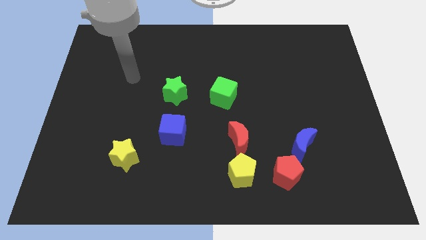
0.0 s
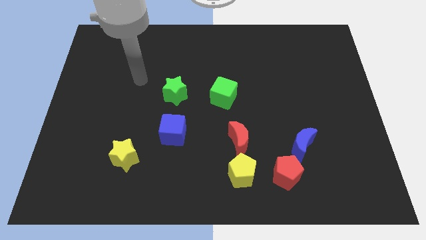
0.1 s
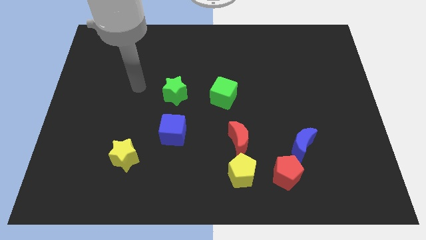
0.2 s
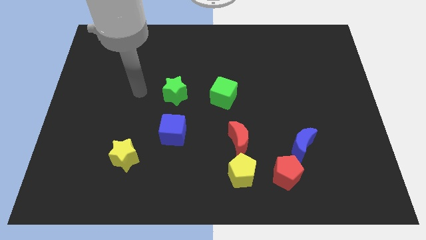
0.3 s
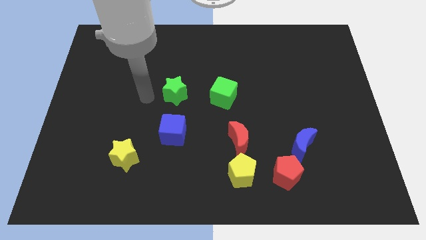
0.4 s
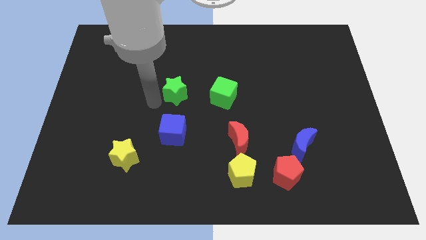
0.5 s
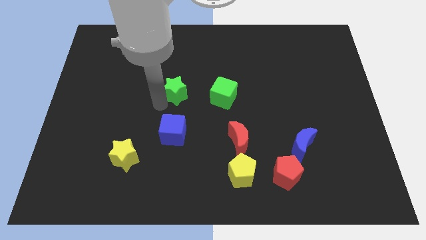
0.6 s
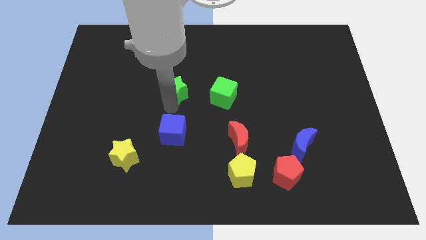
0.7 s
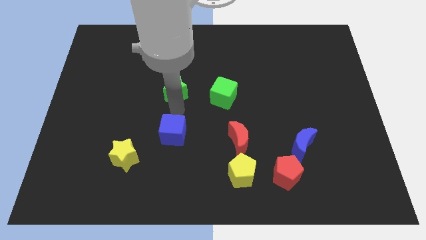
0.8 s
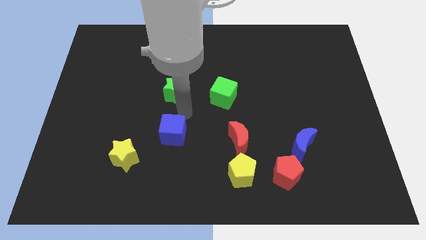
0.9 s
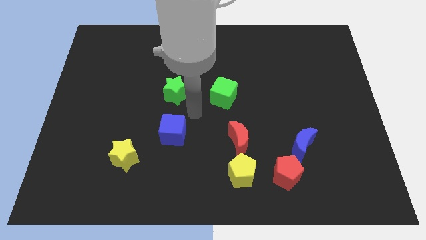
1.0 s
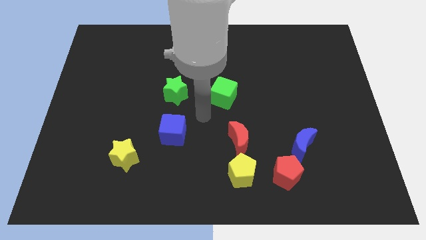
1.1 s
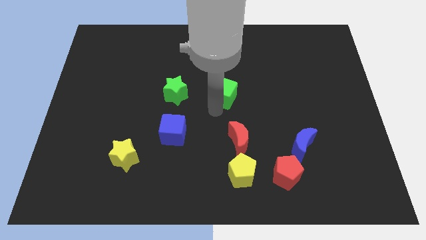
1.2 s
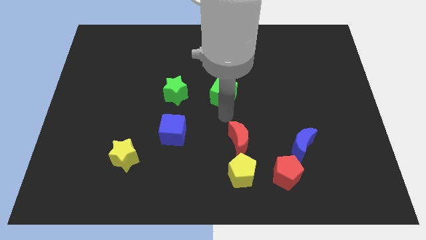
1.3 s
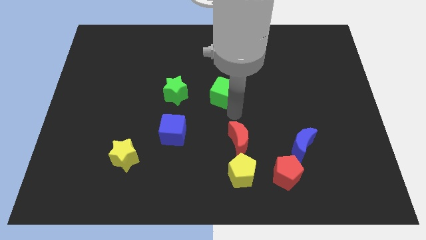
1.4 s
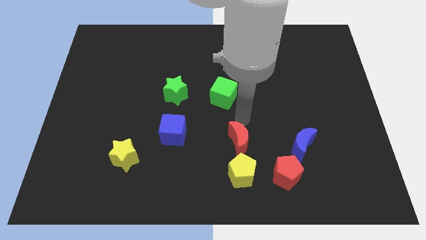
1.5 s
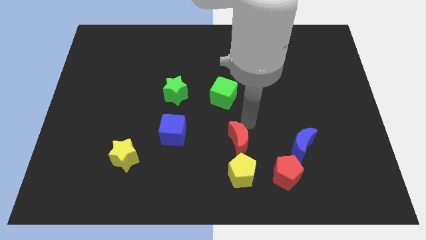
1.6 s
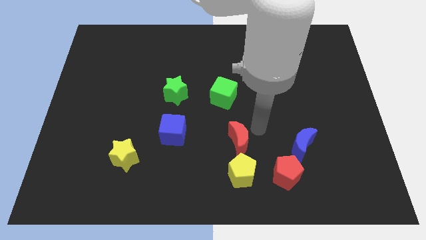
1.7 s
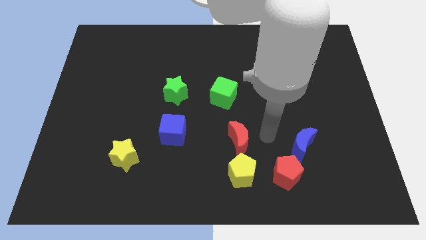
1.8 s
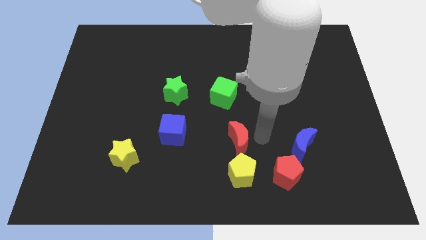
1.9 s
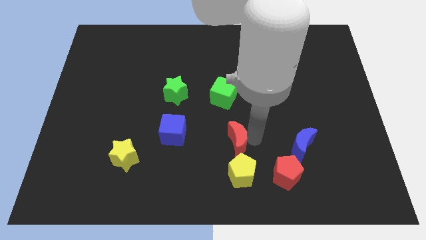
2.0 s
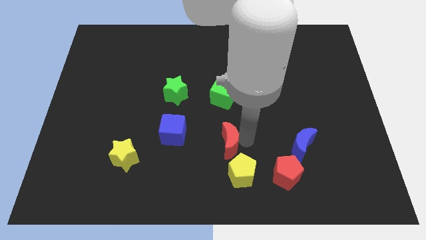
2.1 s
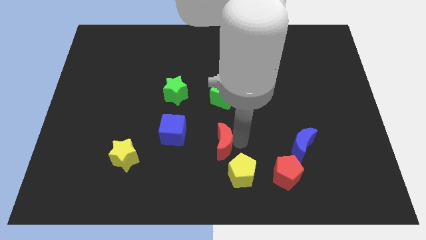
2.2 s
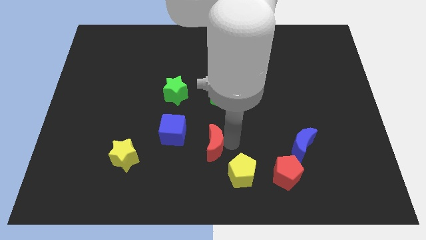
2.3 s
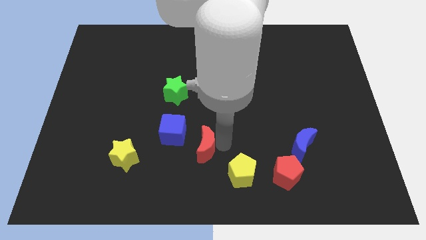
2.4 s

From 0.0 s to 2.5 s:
slightly push the red moon to the left

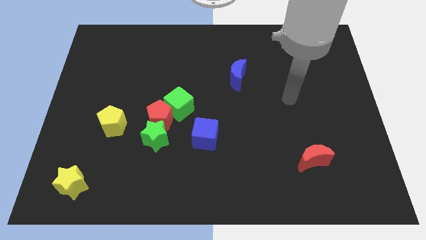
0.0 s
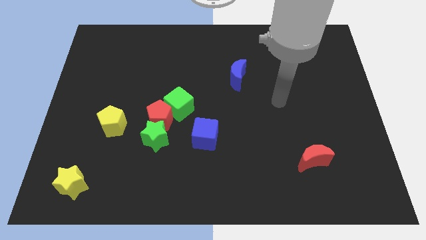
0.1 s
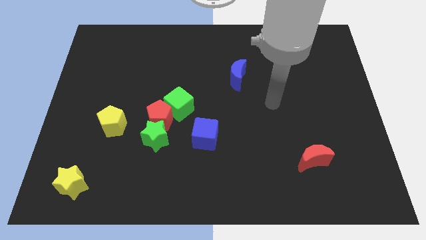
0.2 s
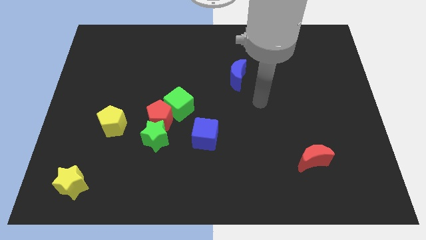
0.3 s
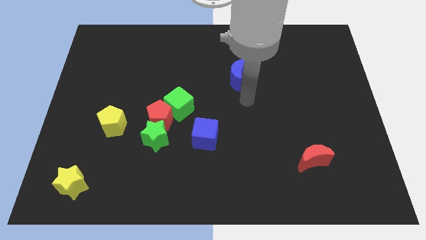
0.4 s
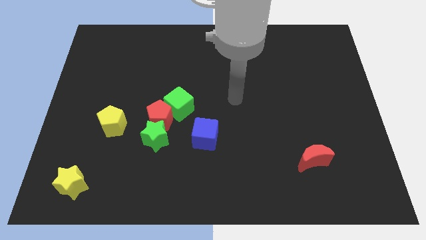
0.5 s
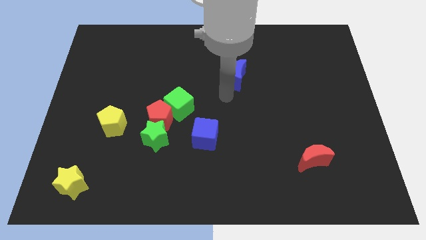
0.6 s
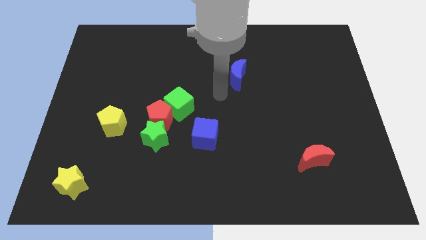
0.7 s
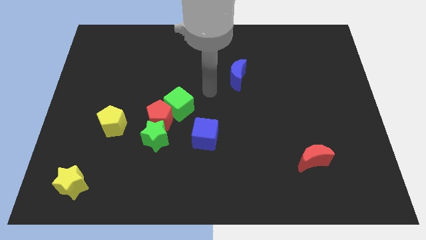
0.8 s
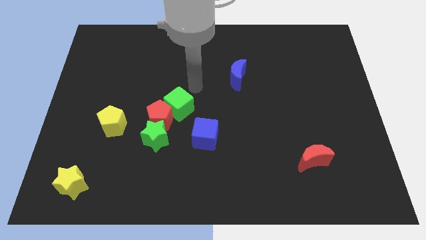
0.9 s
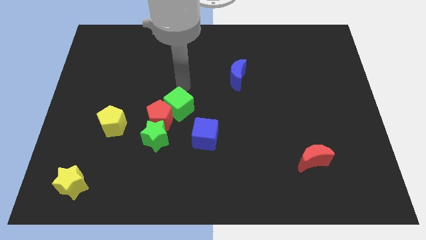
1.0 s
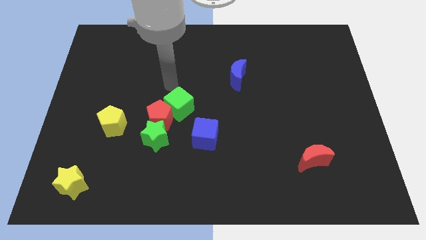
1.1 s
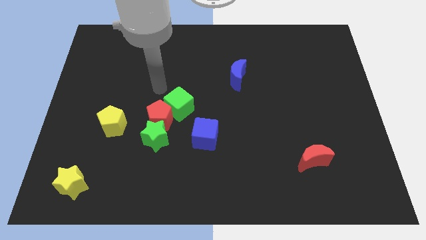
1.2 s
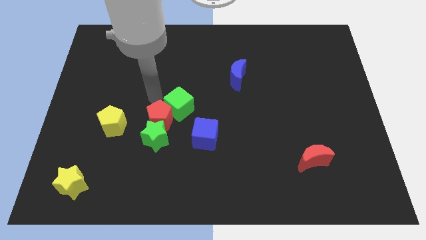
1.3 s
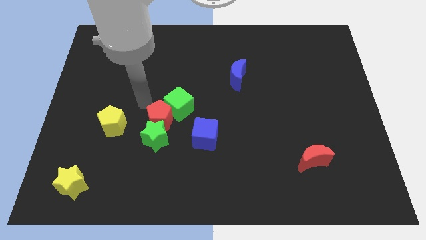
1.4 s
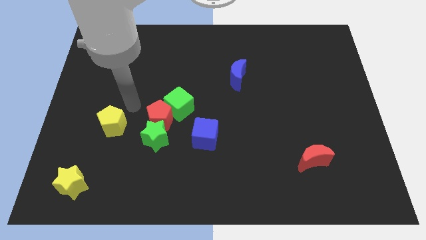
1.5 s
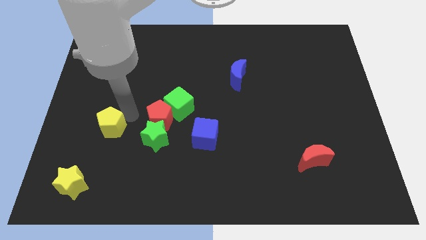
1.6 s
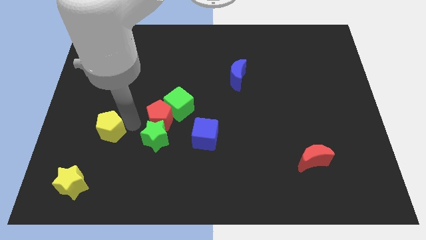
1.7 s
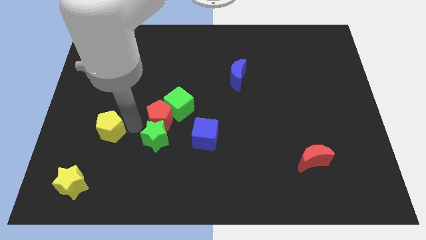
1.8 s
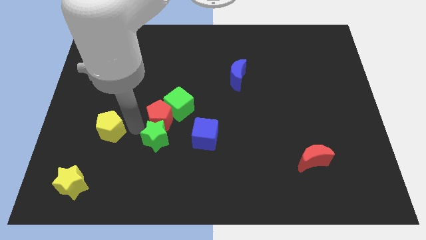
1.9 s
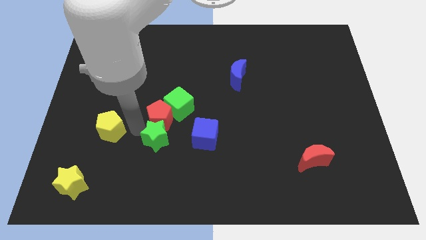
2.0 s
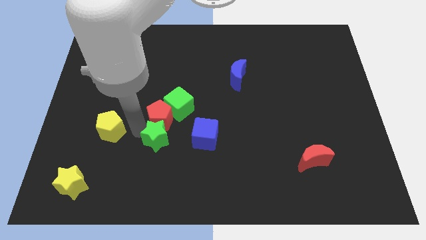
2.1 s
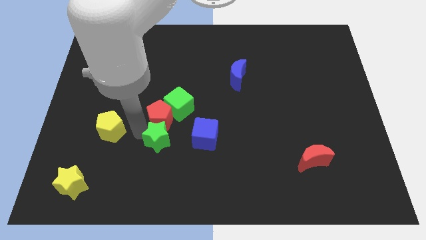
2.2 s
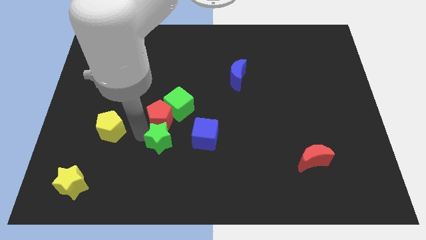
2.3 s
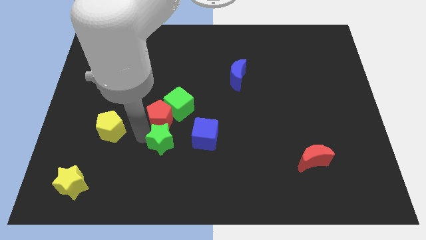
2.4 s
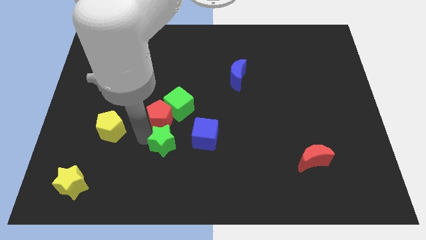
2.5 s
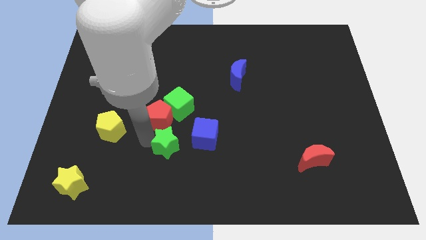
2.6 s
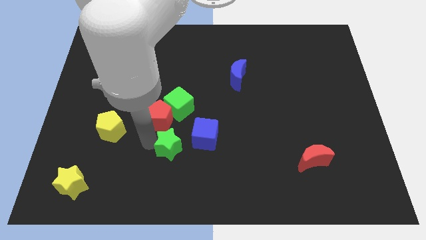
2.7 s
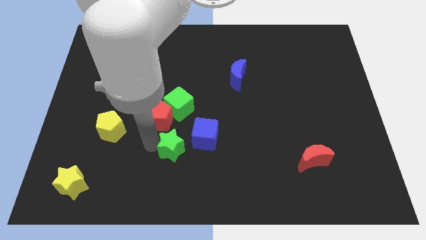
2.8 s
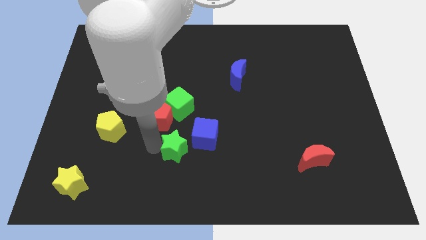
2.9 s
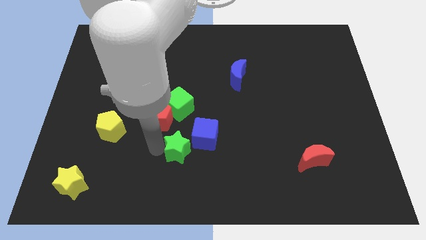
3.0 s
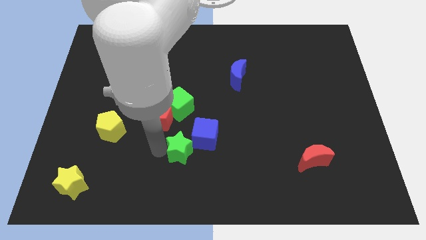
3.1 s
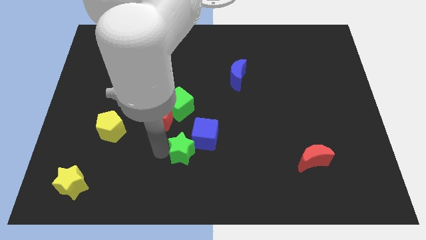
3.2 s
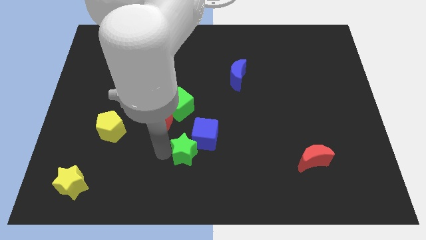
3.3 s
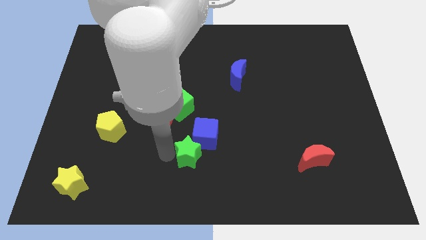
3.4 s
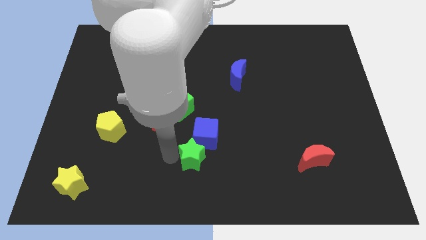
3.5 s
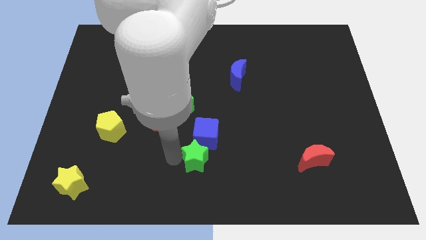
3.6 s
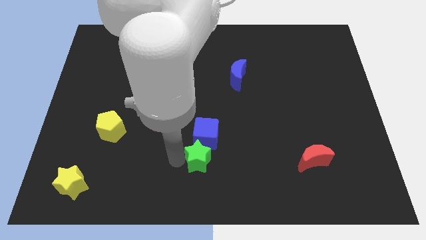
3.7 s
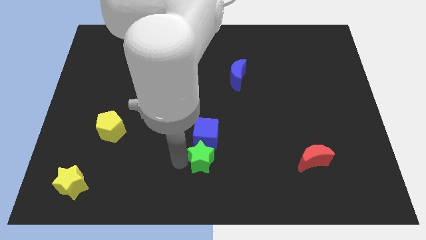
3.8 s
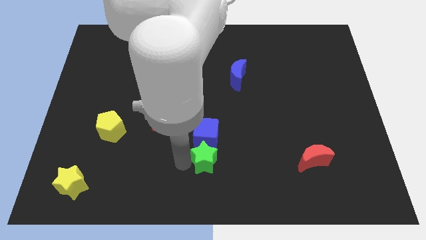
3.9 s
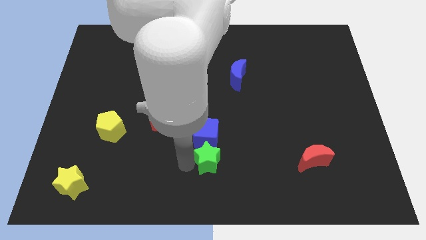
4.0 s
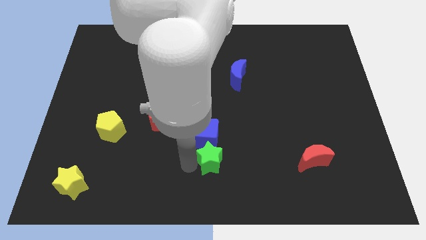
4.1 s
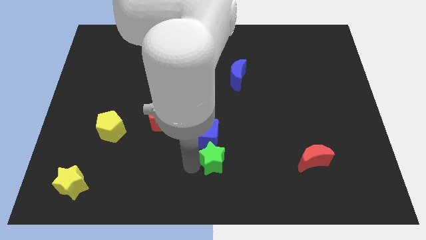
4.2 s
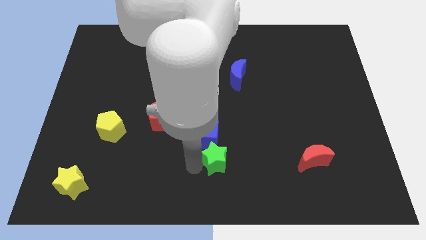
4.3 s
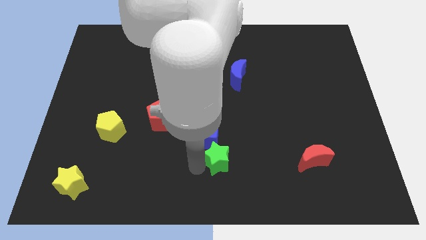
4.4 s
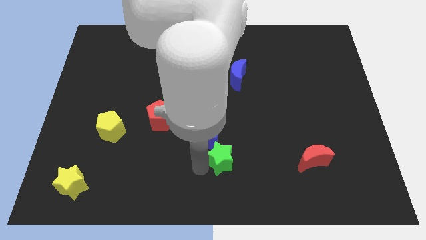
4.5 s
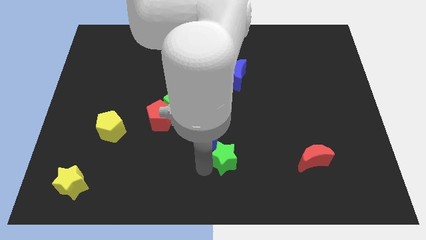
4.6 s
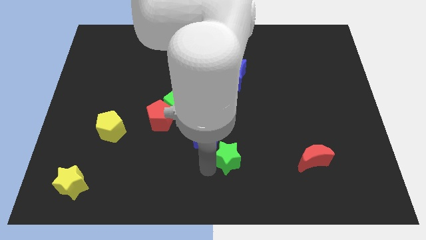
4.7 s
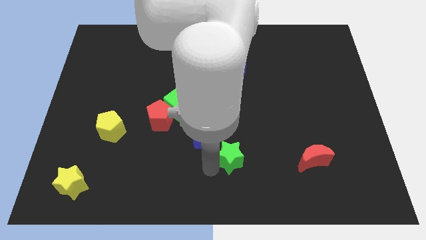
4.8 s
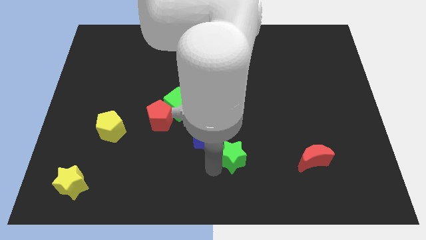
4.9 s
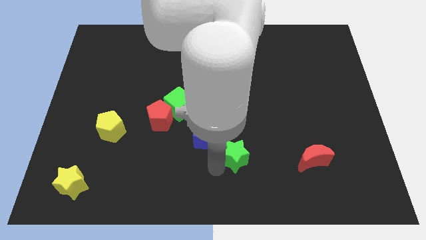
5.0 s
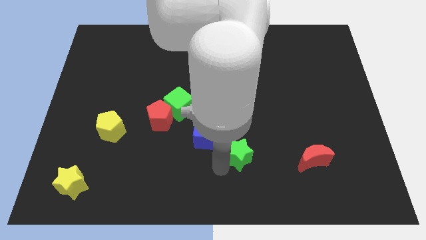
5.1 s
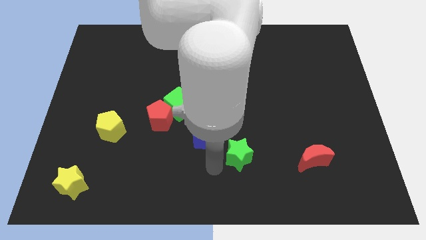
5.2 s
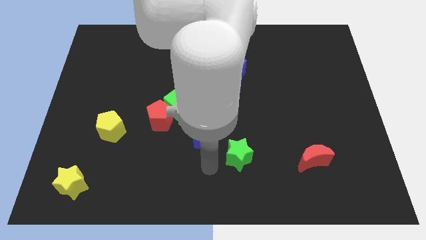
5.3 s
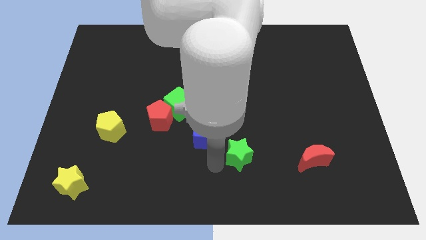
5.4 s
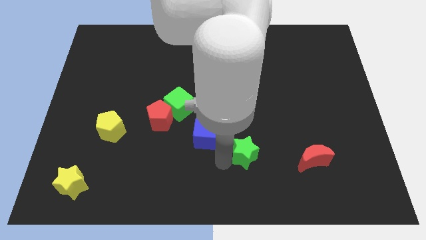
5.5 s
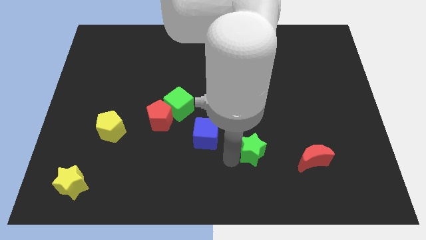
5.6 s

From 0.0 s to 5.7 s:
move the green star to the right
